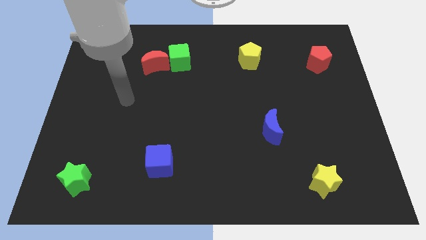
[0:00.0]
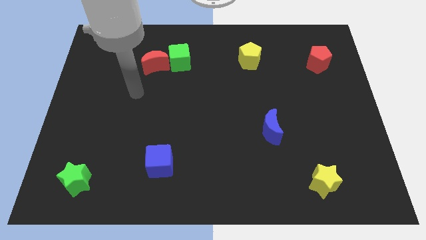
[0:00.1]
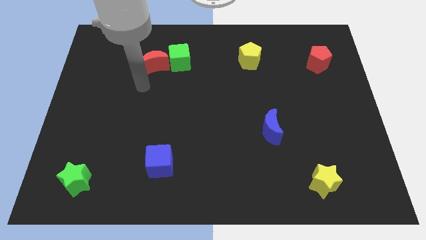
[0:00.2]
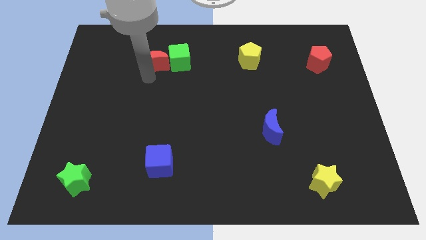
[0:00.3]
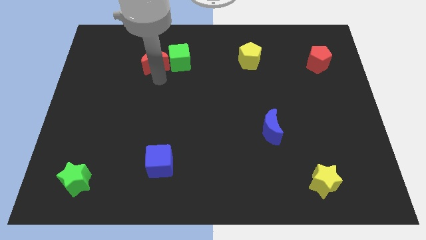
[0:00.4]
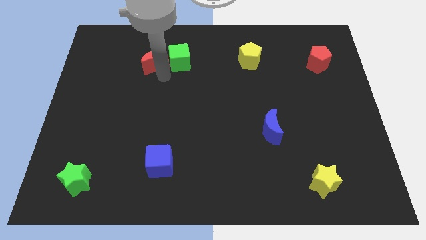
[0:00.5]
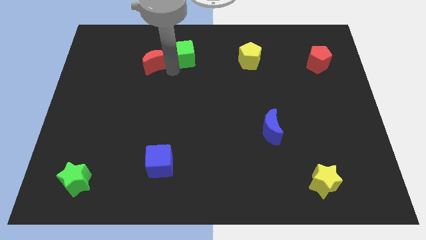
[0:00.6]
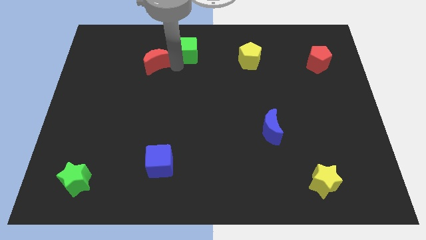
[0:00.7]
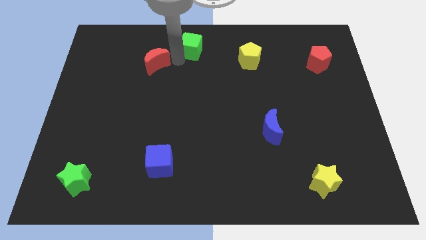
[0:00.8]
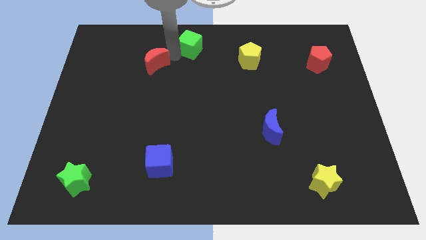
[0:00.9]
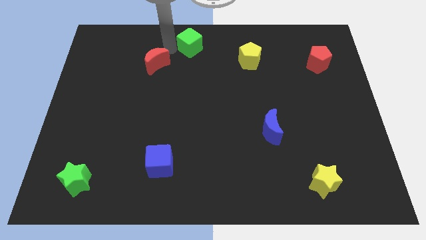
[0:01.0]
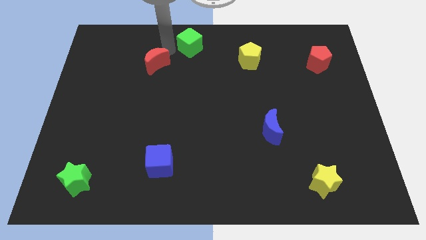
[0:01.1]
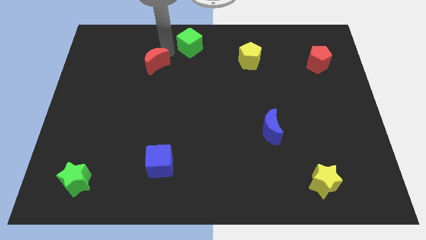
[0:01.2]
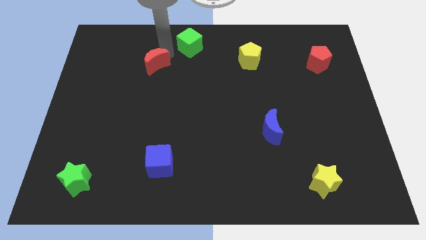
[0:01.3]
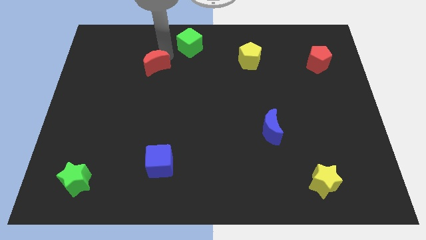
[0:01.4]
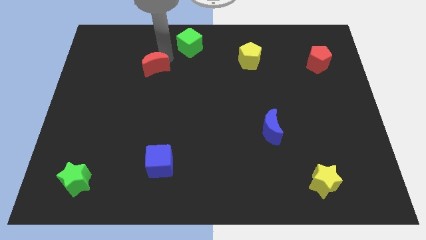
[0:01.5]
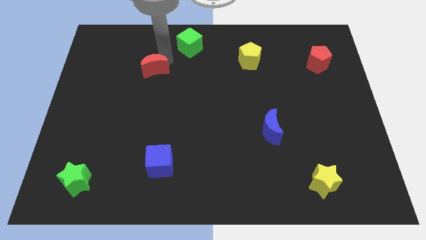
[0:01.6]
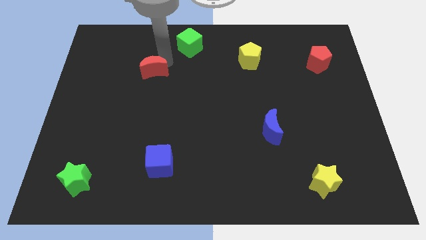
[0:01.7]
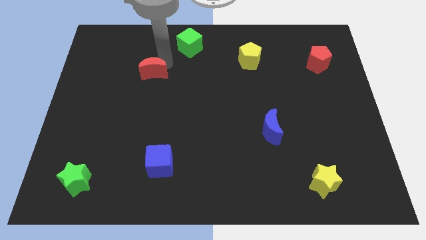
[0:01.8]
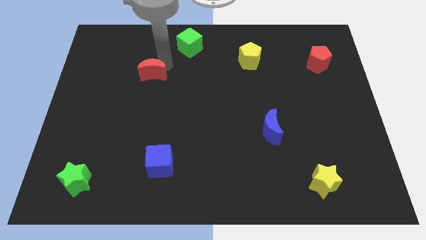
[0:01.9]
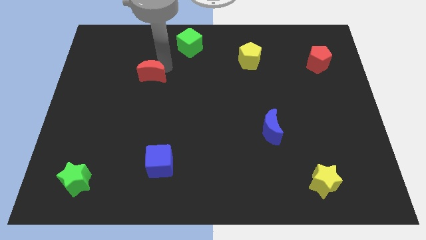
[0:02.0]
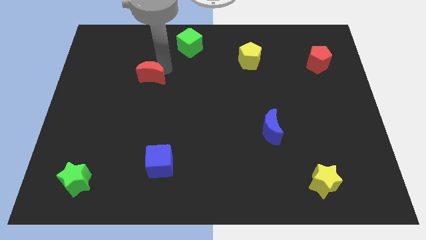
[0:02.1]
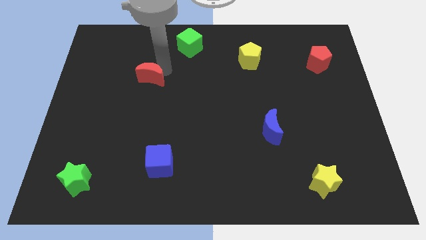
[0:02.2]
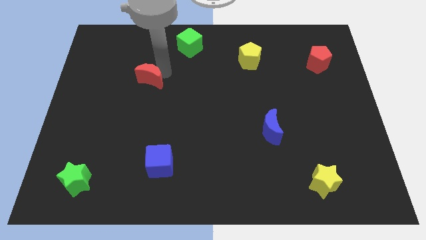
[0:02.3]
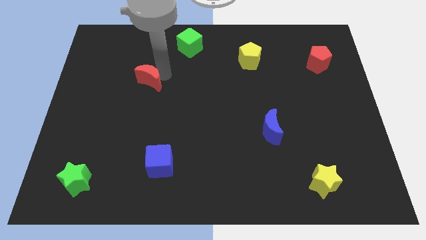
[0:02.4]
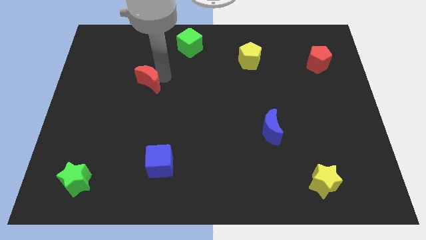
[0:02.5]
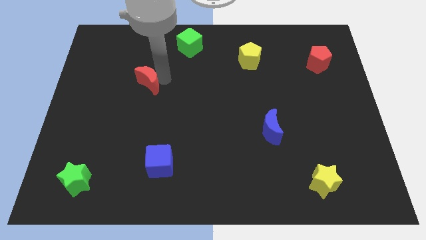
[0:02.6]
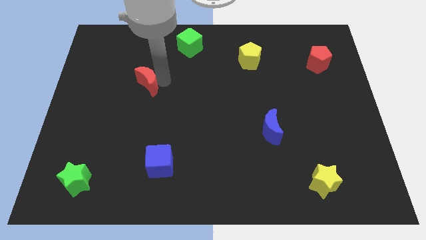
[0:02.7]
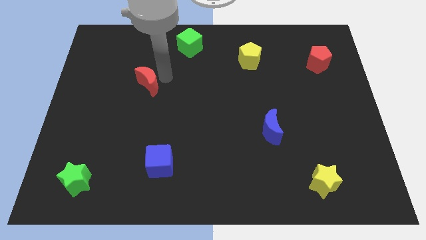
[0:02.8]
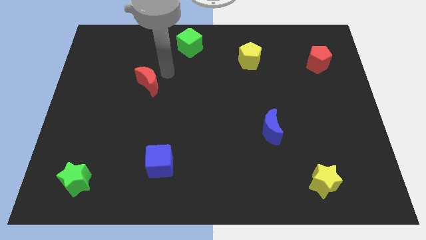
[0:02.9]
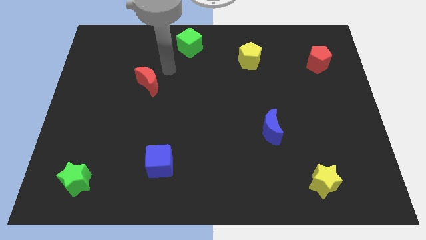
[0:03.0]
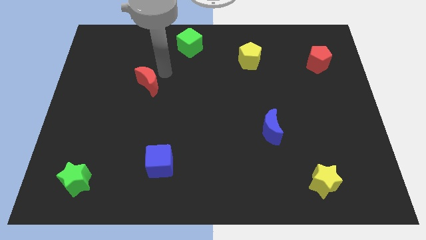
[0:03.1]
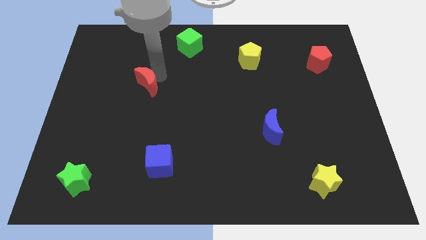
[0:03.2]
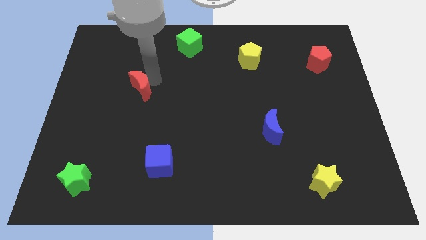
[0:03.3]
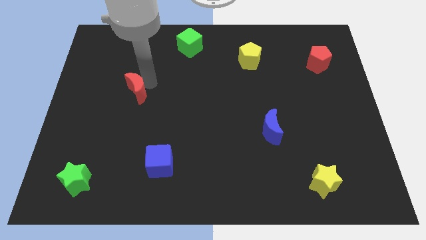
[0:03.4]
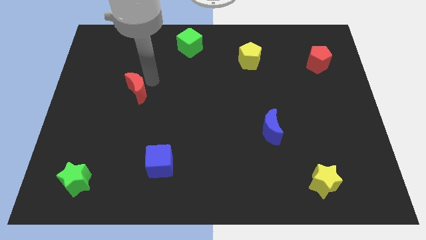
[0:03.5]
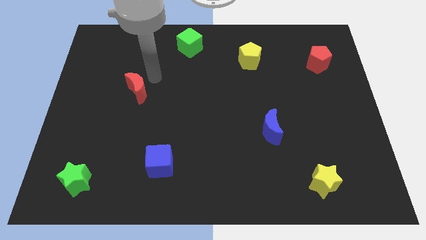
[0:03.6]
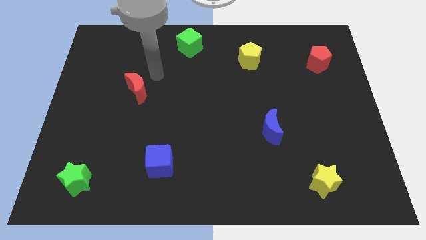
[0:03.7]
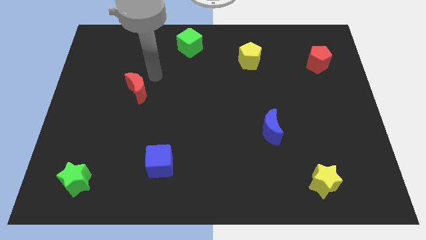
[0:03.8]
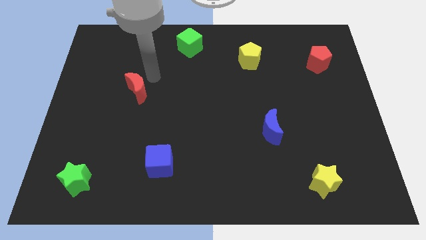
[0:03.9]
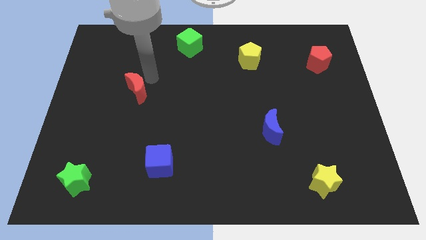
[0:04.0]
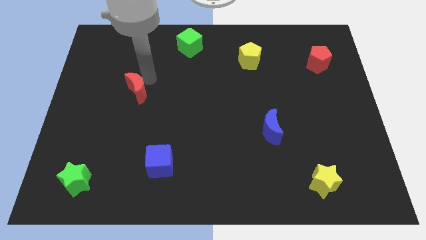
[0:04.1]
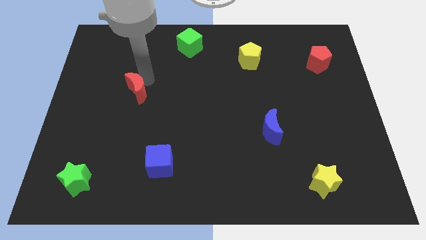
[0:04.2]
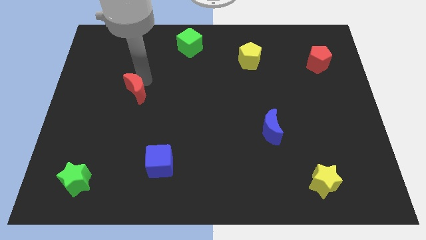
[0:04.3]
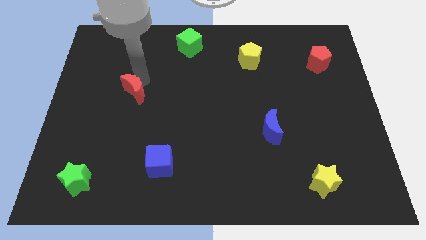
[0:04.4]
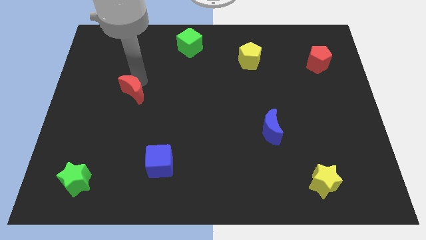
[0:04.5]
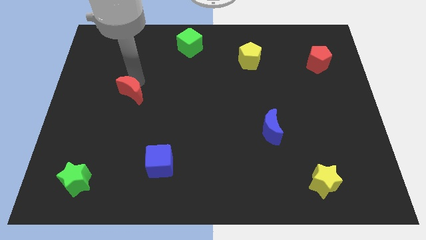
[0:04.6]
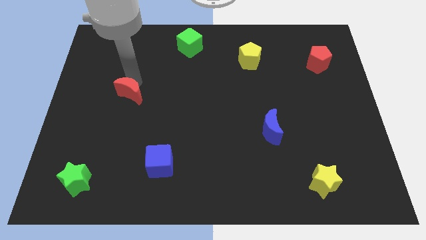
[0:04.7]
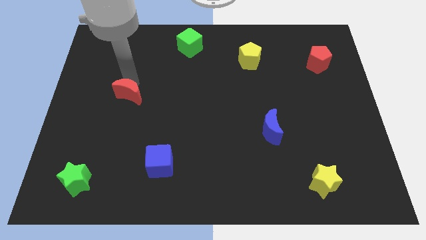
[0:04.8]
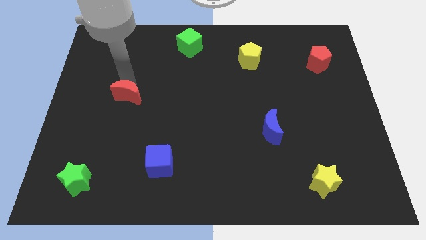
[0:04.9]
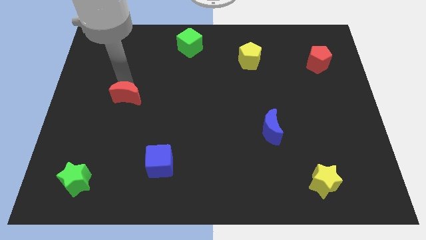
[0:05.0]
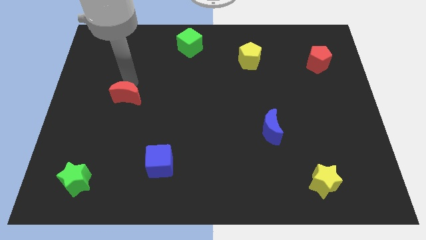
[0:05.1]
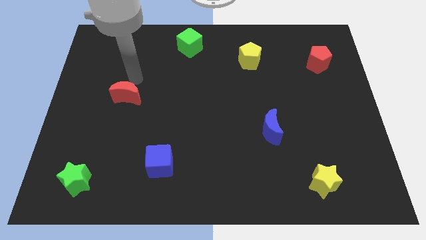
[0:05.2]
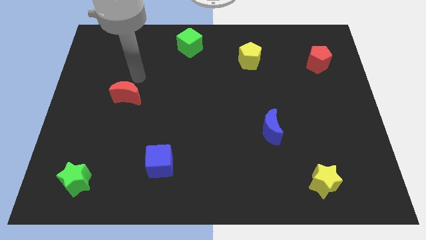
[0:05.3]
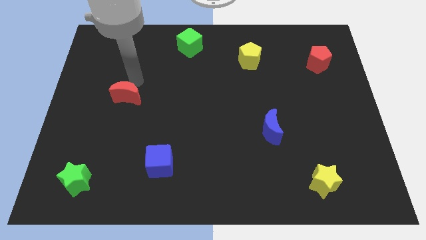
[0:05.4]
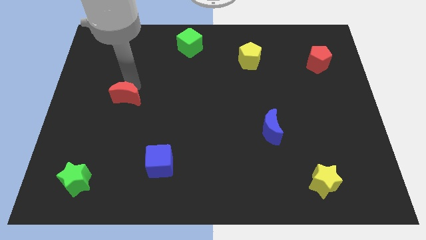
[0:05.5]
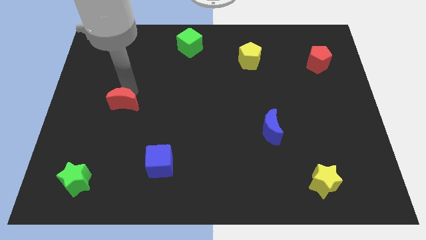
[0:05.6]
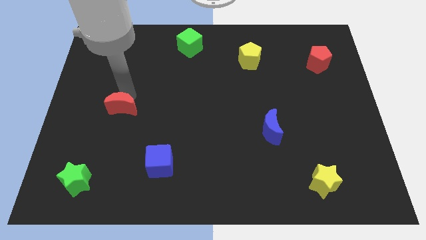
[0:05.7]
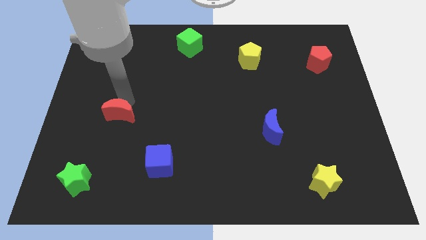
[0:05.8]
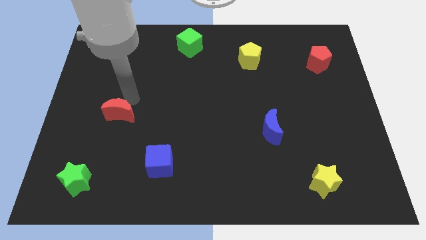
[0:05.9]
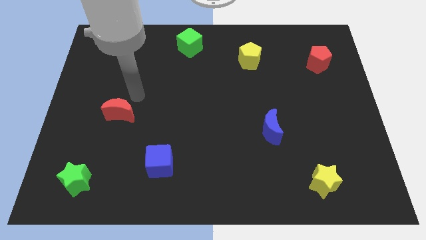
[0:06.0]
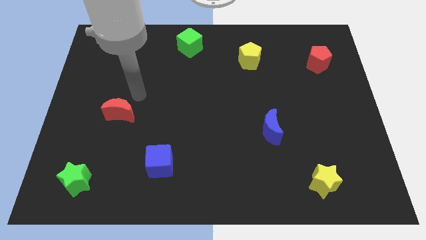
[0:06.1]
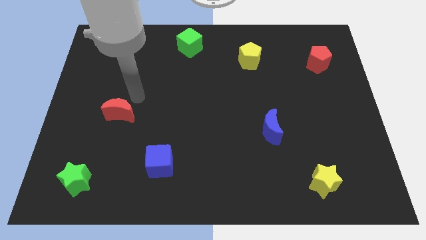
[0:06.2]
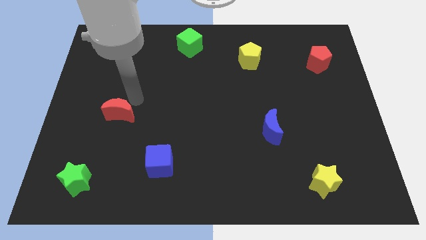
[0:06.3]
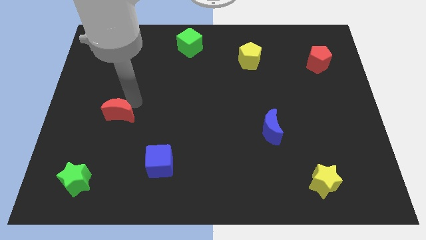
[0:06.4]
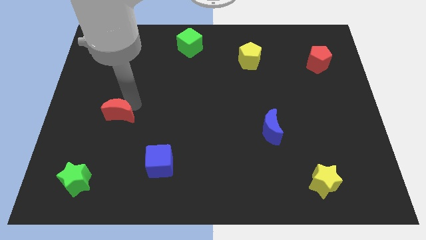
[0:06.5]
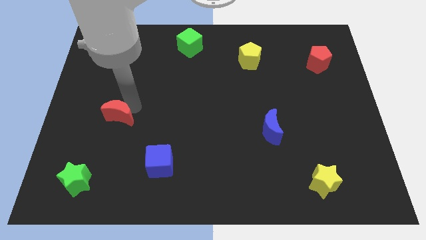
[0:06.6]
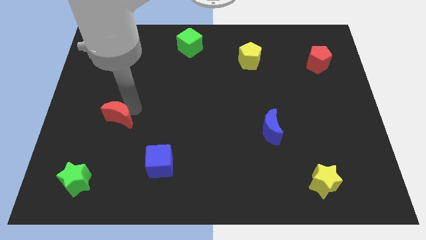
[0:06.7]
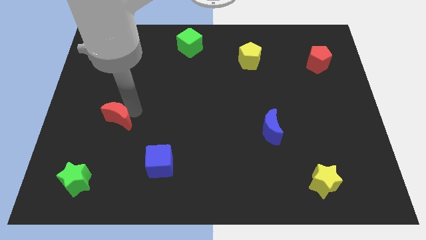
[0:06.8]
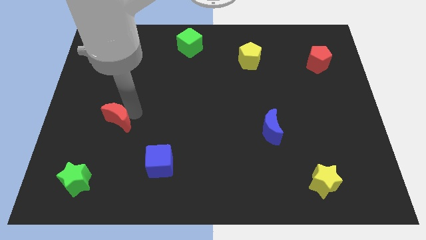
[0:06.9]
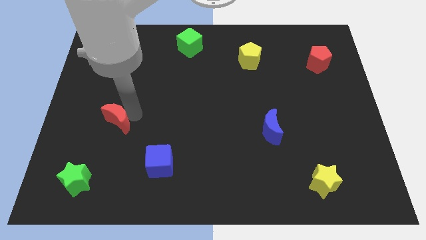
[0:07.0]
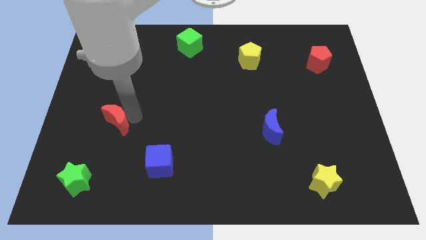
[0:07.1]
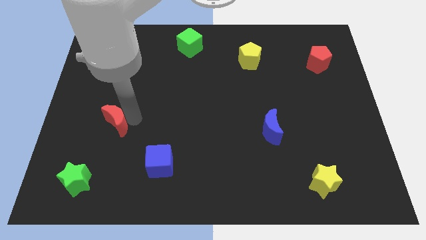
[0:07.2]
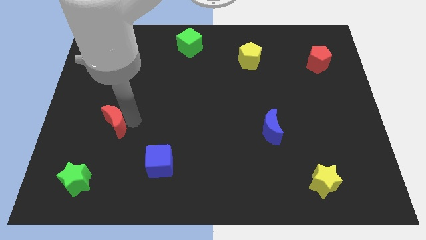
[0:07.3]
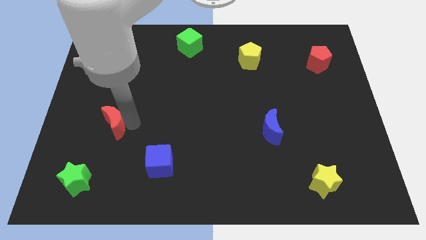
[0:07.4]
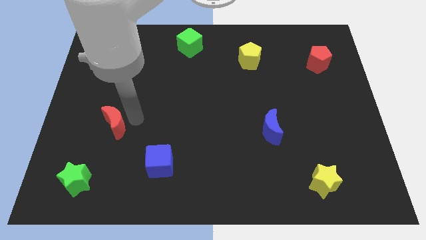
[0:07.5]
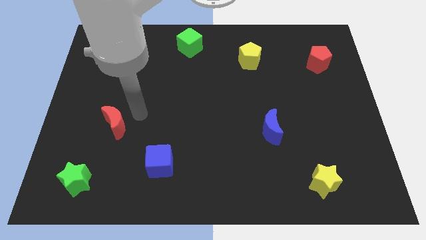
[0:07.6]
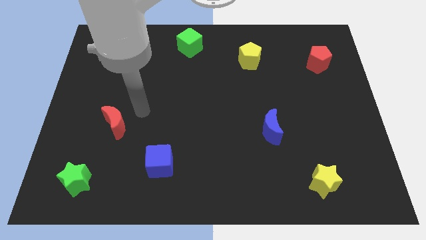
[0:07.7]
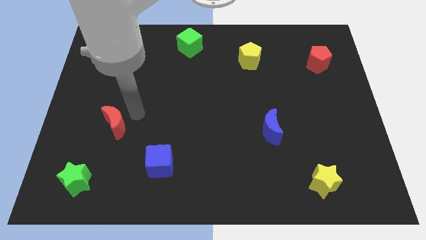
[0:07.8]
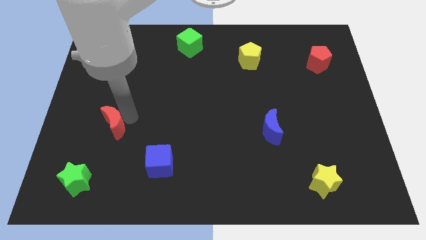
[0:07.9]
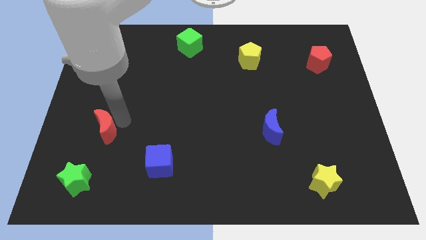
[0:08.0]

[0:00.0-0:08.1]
move the red moon to the top side of the green star
